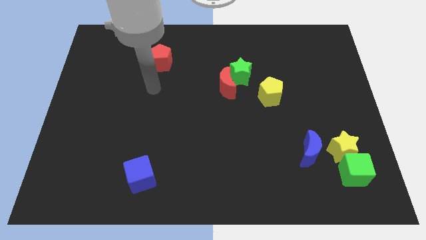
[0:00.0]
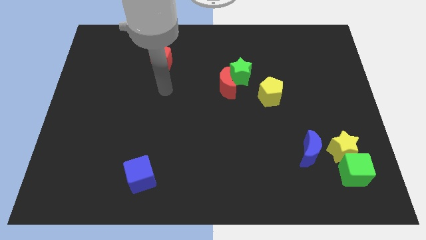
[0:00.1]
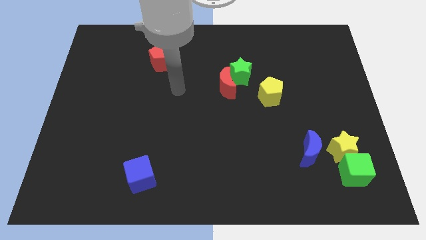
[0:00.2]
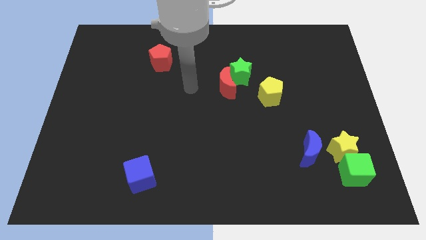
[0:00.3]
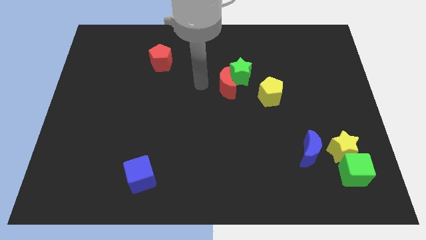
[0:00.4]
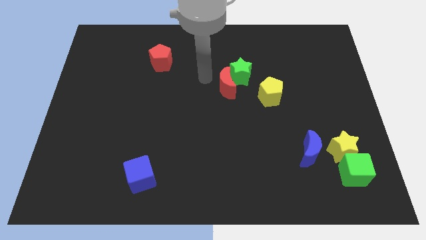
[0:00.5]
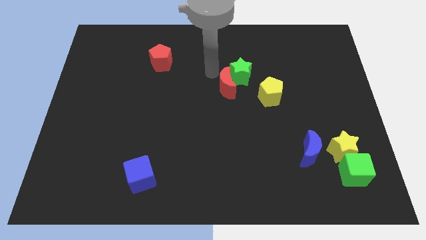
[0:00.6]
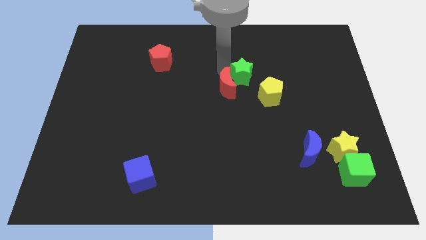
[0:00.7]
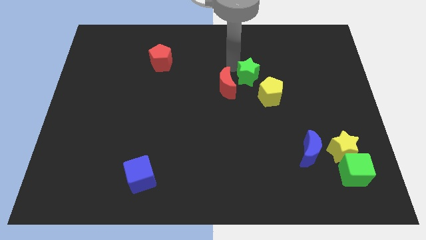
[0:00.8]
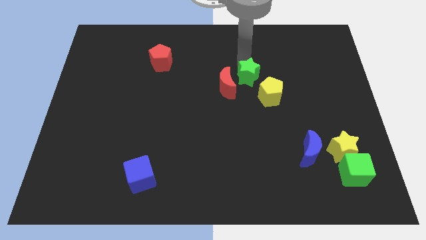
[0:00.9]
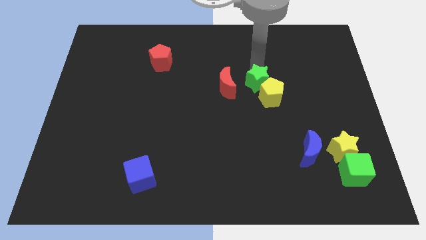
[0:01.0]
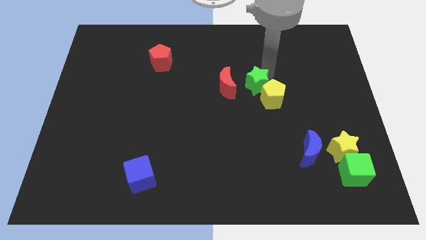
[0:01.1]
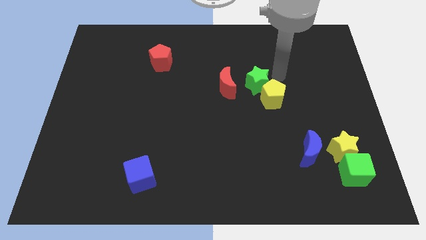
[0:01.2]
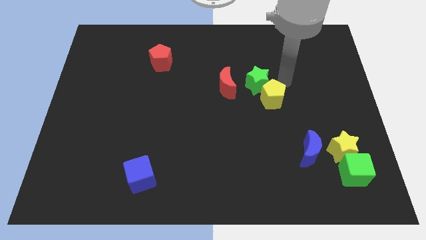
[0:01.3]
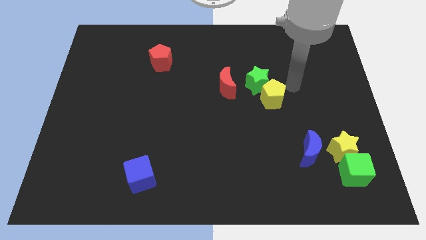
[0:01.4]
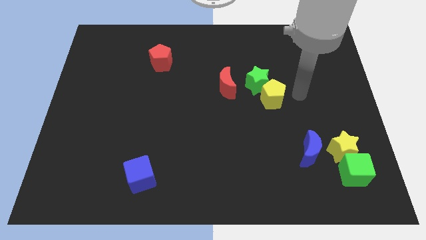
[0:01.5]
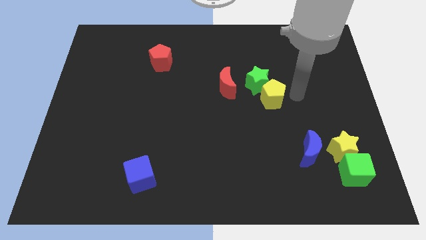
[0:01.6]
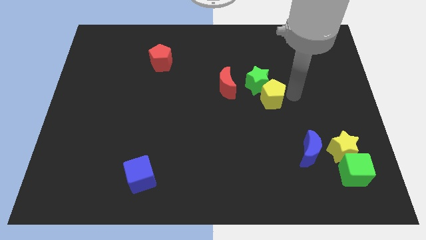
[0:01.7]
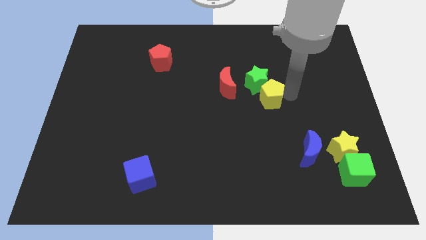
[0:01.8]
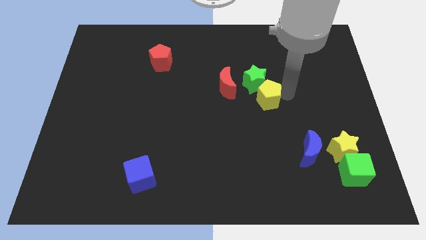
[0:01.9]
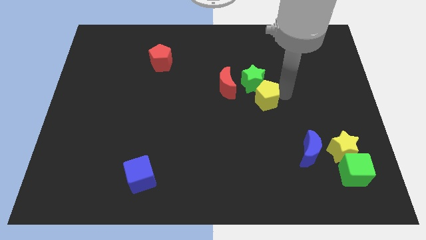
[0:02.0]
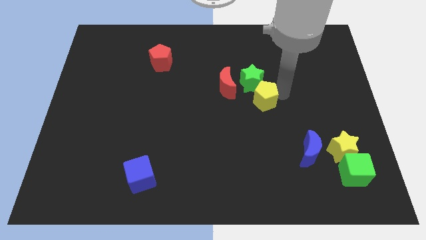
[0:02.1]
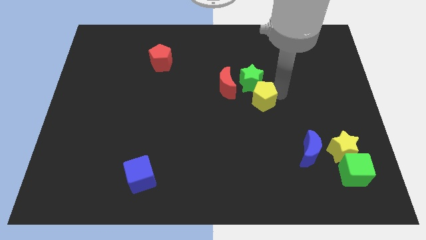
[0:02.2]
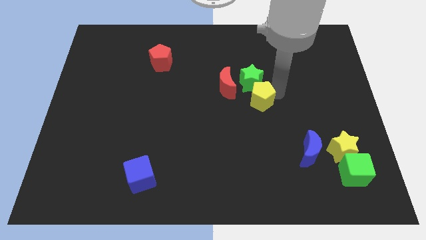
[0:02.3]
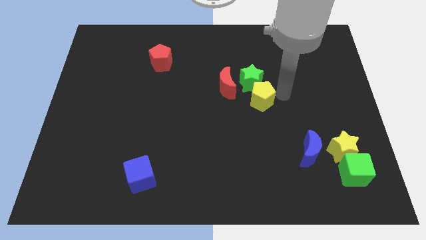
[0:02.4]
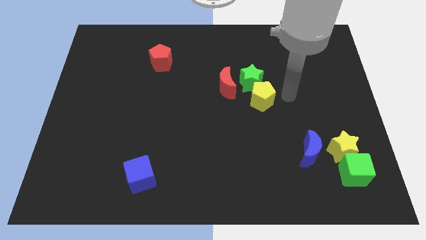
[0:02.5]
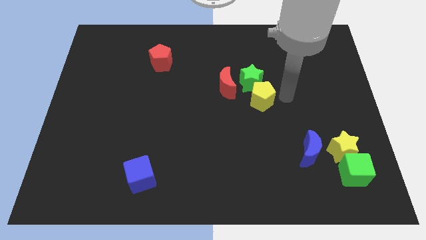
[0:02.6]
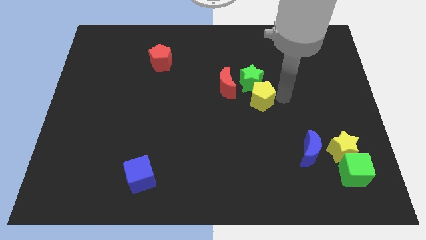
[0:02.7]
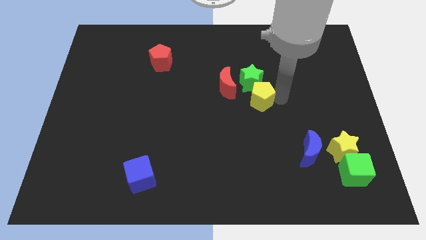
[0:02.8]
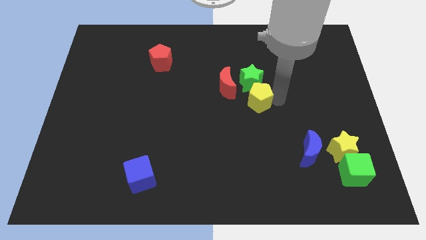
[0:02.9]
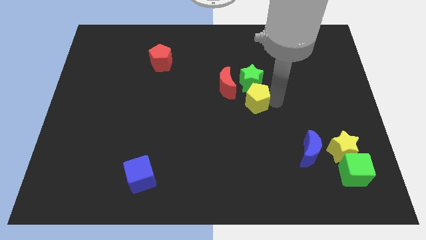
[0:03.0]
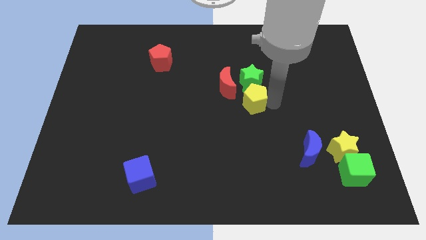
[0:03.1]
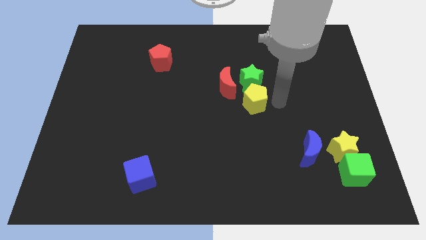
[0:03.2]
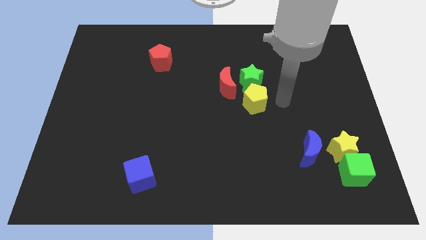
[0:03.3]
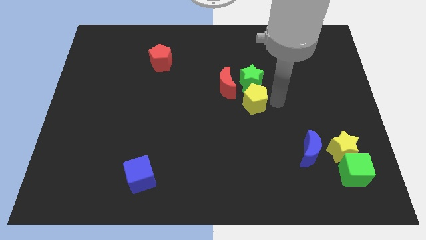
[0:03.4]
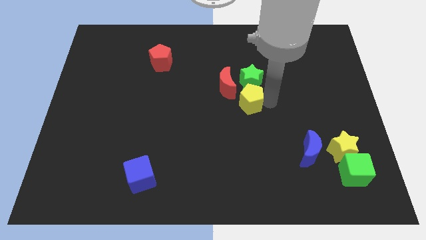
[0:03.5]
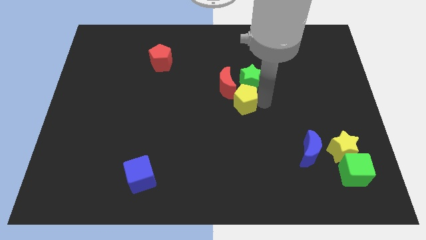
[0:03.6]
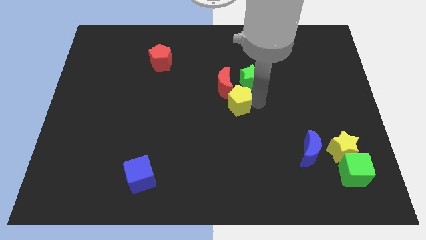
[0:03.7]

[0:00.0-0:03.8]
slide the yellow pentagon to the left a little bit

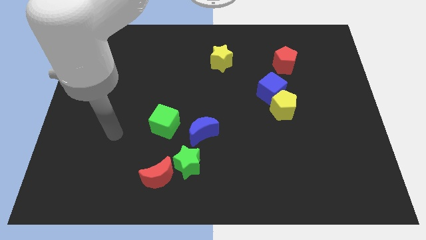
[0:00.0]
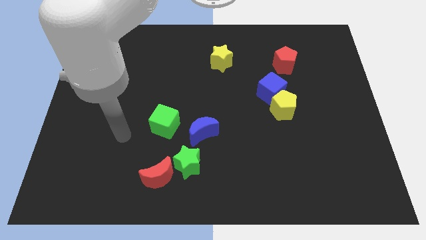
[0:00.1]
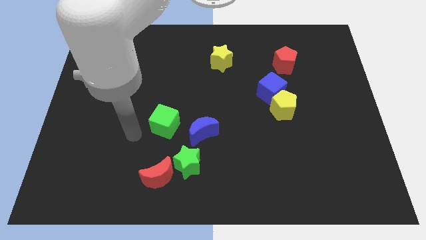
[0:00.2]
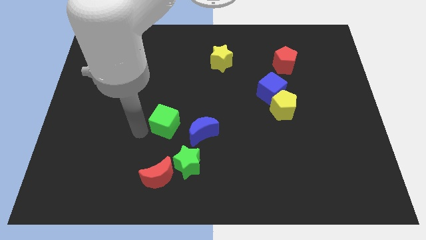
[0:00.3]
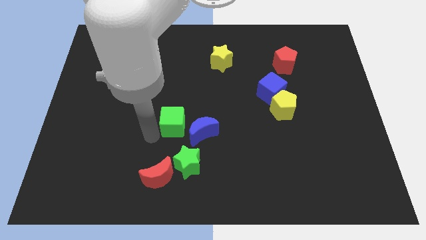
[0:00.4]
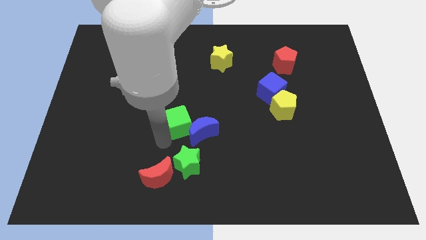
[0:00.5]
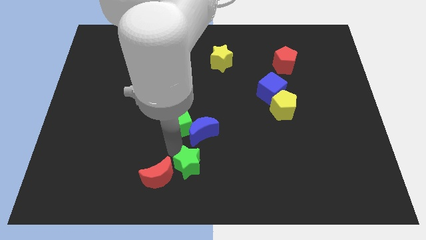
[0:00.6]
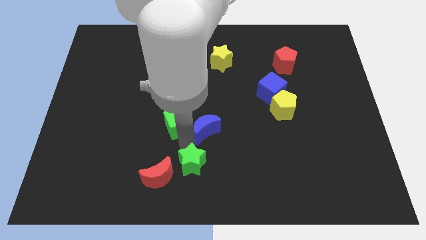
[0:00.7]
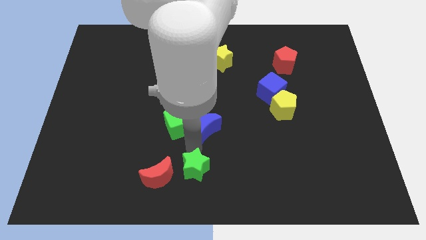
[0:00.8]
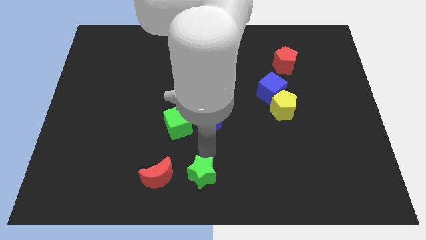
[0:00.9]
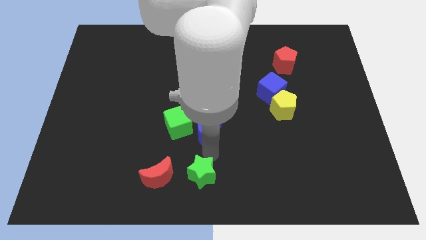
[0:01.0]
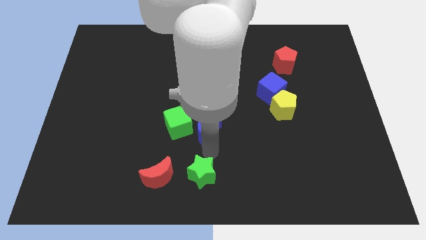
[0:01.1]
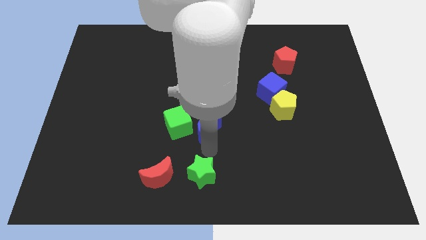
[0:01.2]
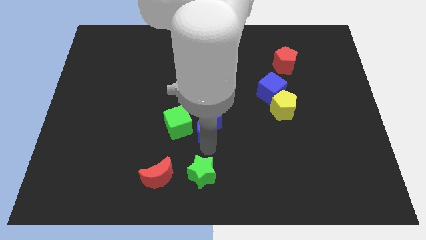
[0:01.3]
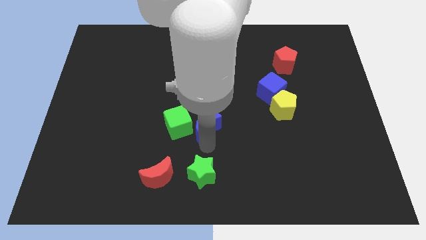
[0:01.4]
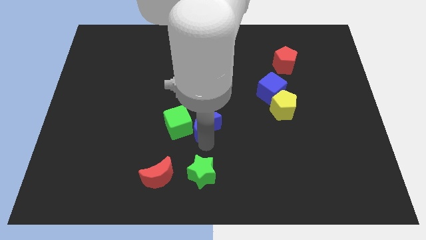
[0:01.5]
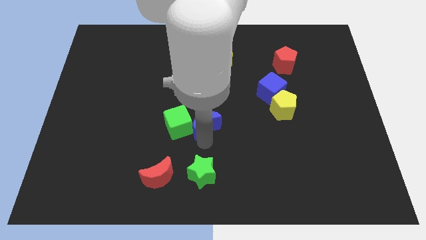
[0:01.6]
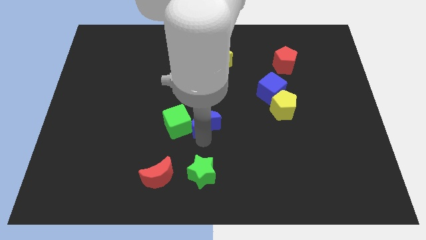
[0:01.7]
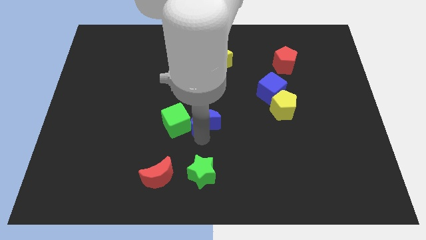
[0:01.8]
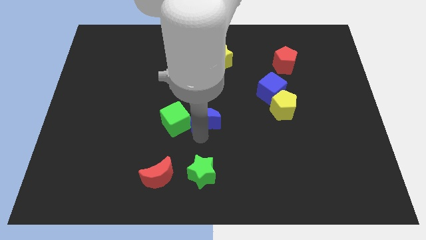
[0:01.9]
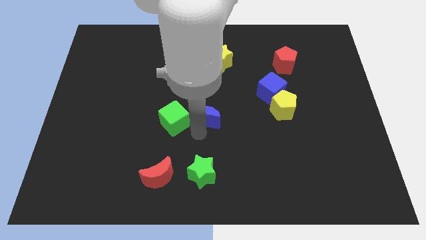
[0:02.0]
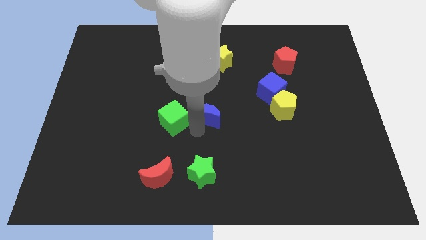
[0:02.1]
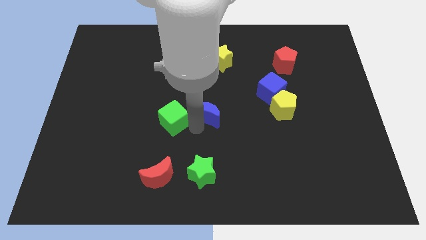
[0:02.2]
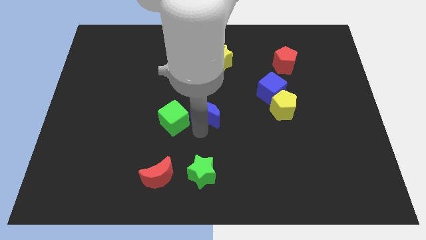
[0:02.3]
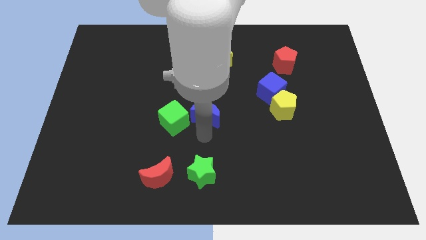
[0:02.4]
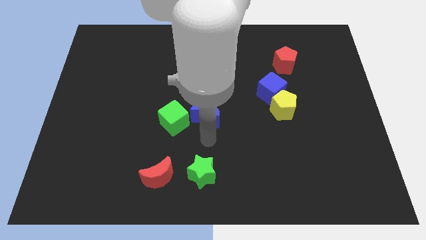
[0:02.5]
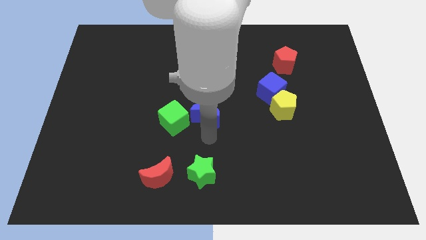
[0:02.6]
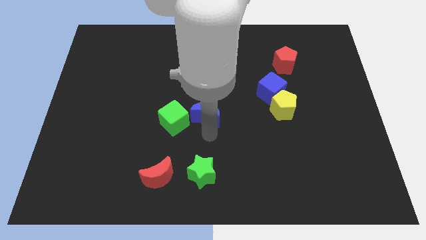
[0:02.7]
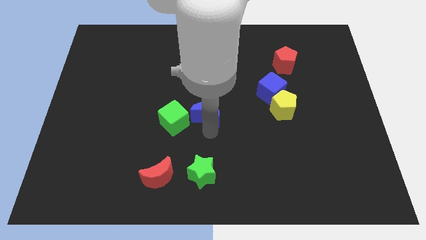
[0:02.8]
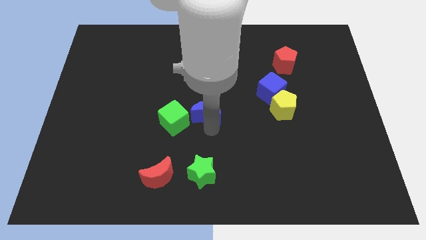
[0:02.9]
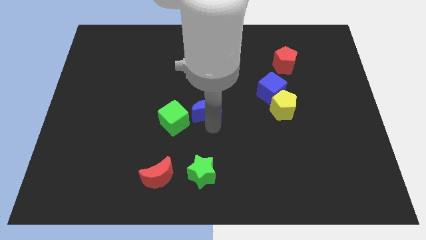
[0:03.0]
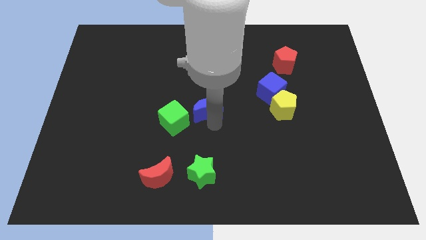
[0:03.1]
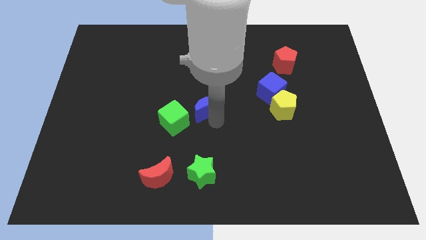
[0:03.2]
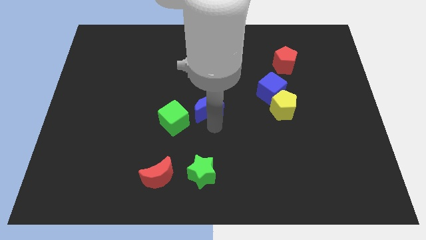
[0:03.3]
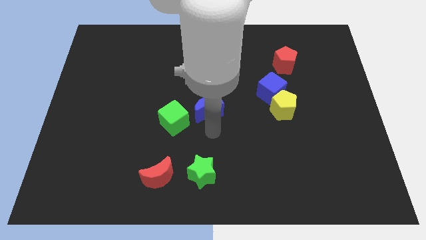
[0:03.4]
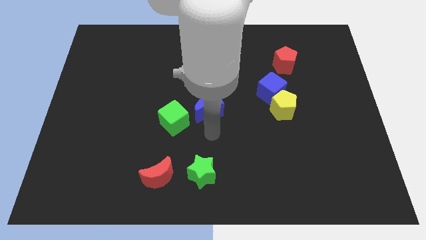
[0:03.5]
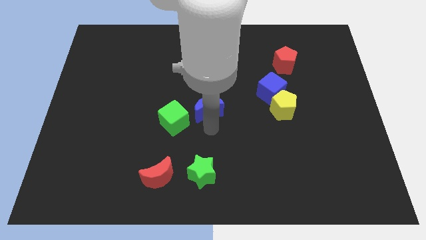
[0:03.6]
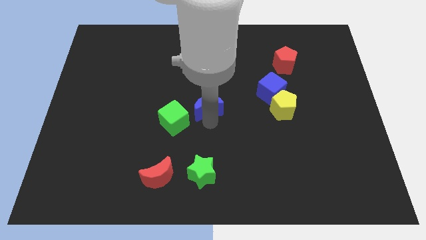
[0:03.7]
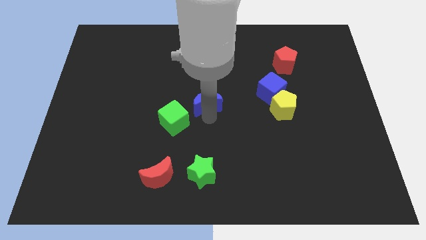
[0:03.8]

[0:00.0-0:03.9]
slide the blue moon slightly upwards
